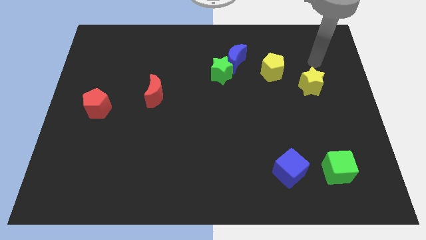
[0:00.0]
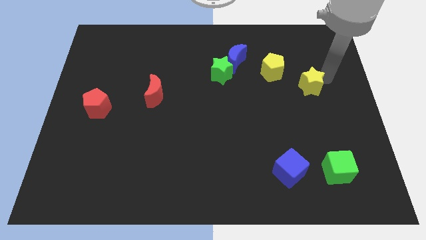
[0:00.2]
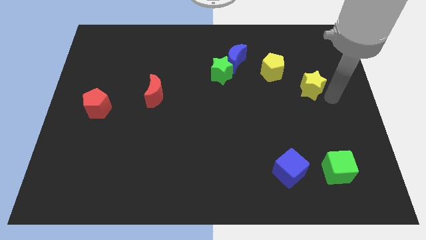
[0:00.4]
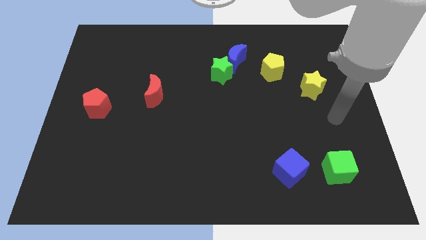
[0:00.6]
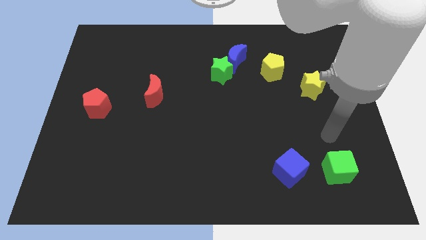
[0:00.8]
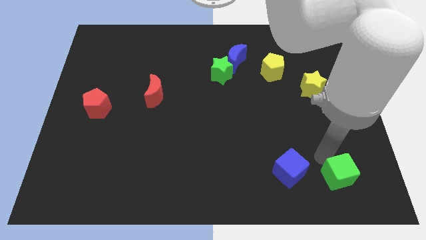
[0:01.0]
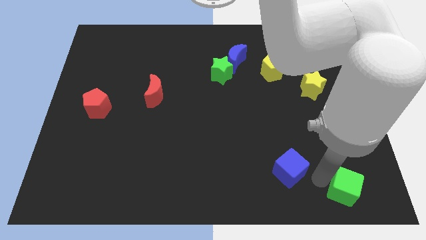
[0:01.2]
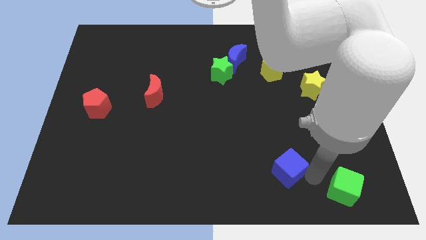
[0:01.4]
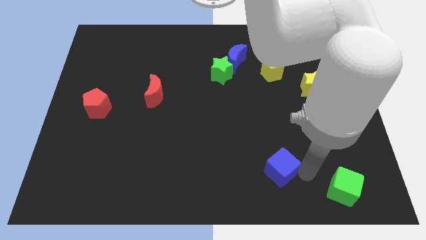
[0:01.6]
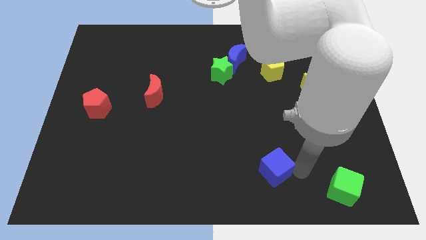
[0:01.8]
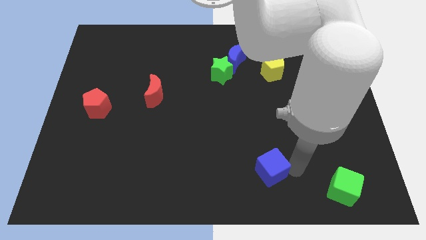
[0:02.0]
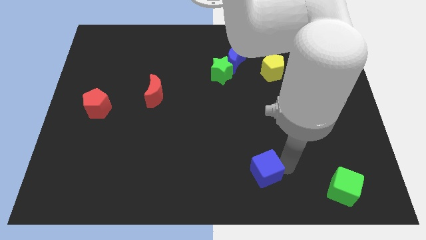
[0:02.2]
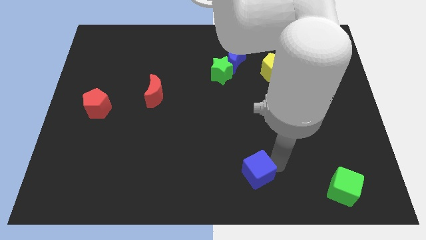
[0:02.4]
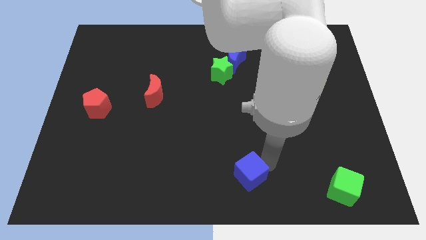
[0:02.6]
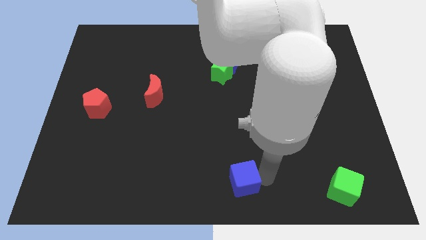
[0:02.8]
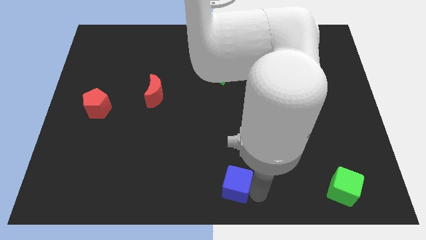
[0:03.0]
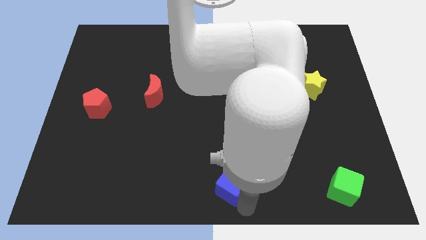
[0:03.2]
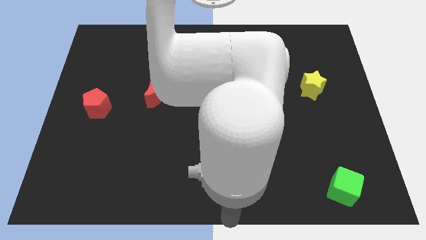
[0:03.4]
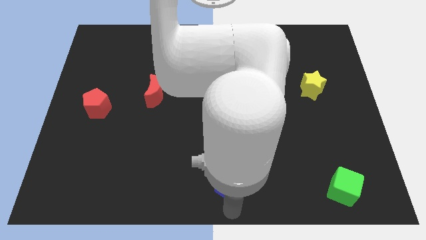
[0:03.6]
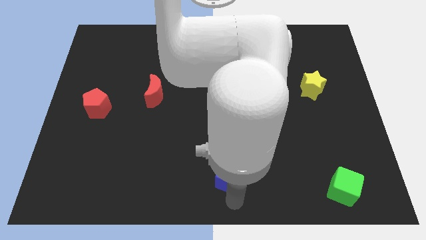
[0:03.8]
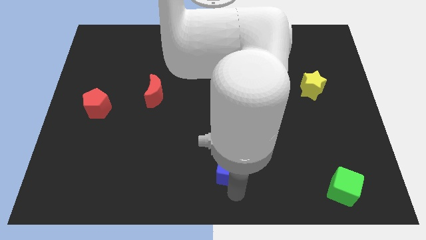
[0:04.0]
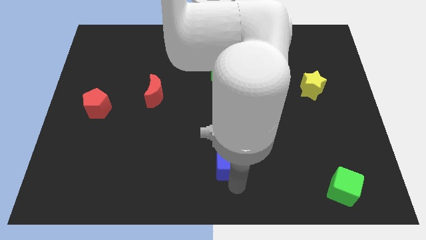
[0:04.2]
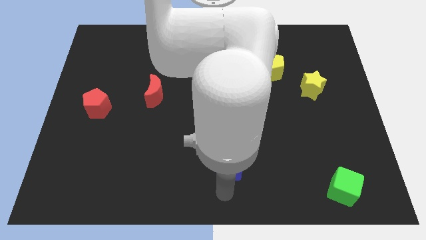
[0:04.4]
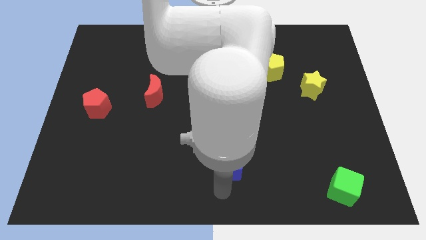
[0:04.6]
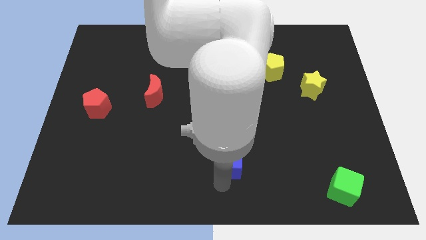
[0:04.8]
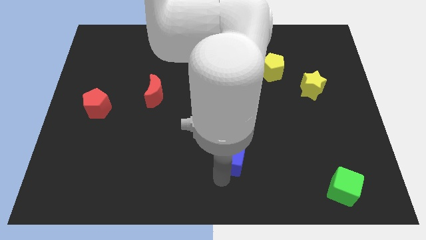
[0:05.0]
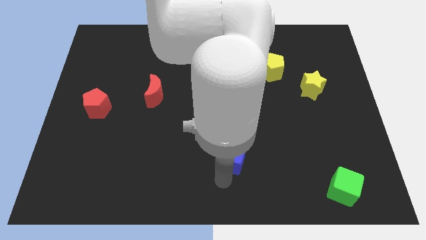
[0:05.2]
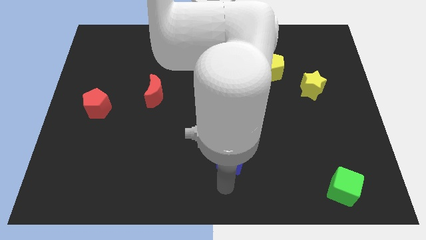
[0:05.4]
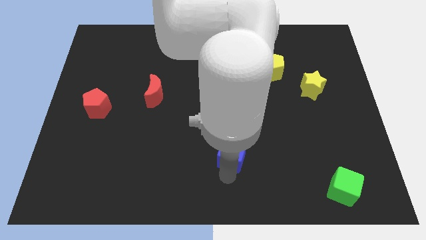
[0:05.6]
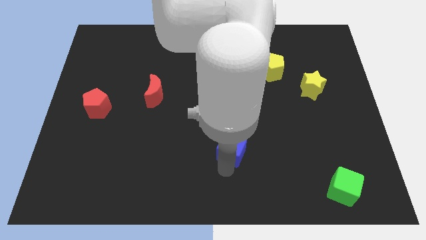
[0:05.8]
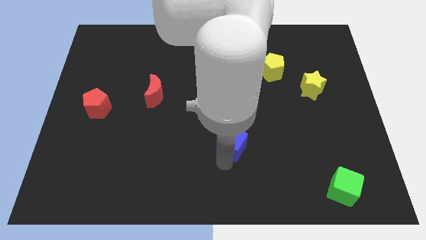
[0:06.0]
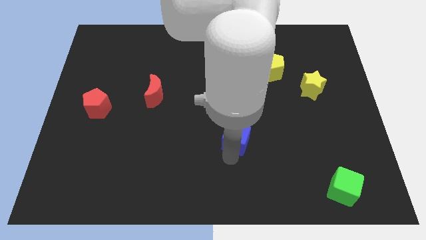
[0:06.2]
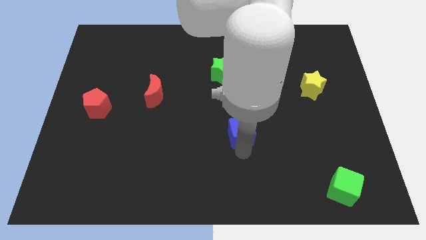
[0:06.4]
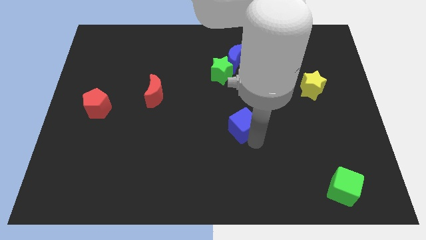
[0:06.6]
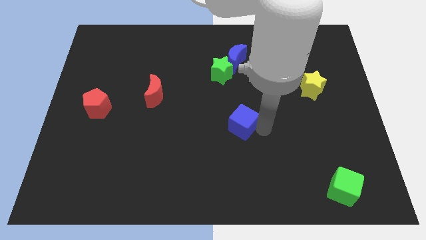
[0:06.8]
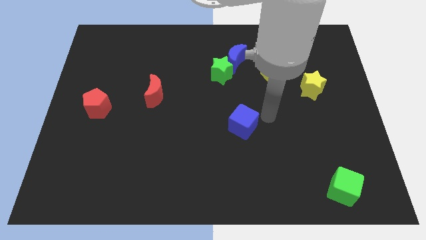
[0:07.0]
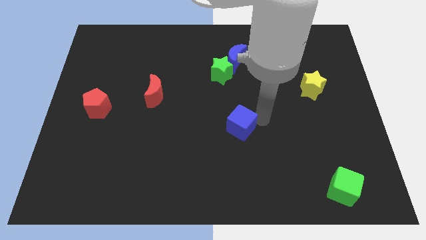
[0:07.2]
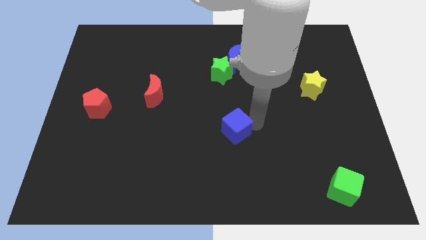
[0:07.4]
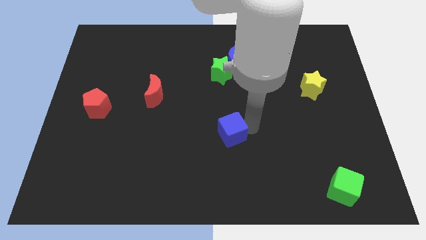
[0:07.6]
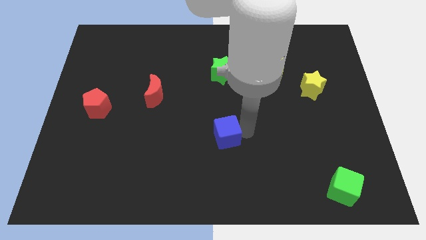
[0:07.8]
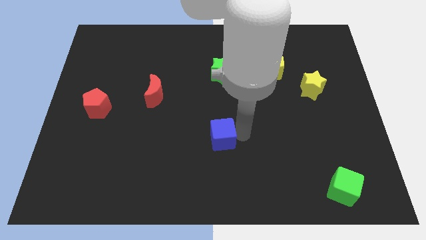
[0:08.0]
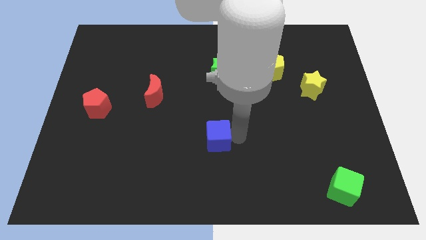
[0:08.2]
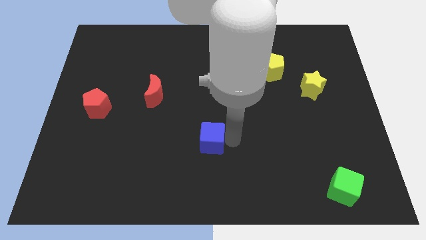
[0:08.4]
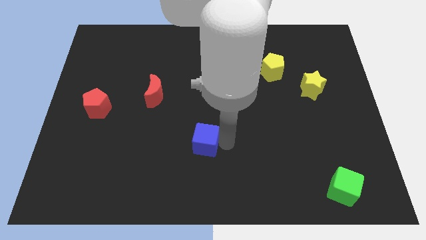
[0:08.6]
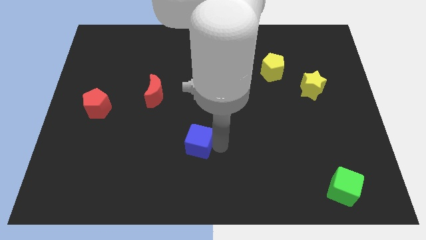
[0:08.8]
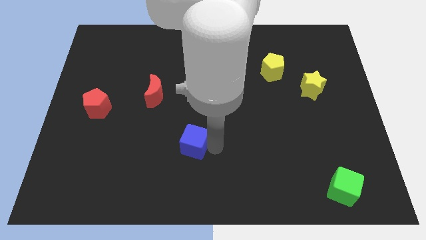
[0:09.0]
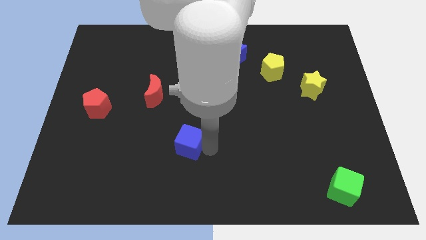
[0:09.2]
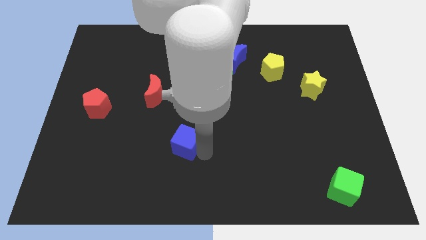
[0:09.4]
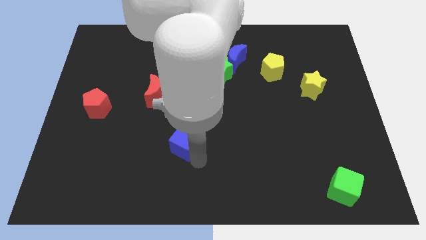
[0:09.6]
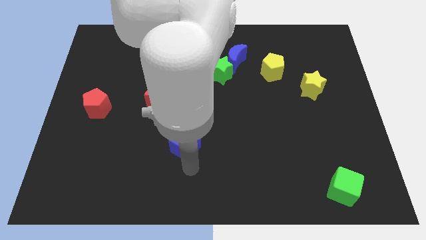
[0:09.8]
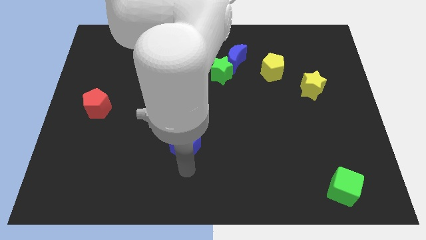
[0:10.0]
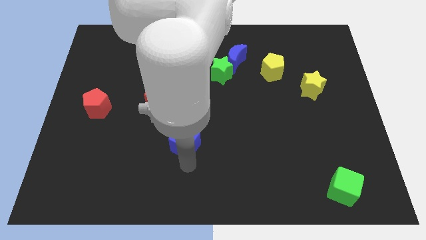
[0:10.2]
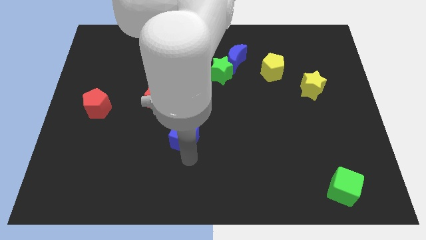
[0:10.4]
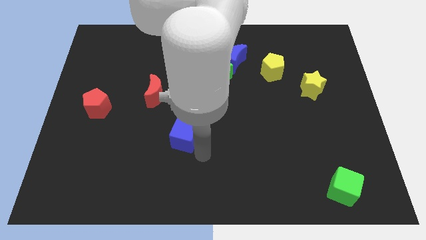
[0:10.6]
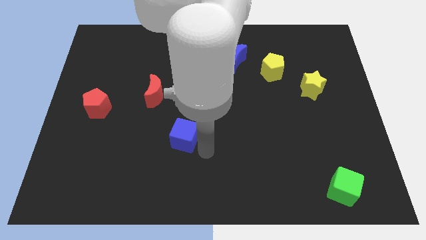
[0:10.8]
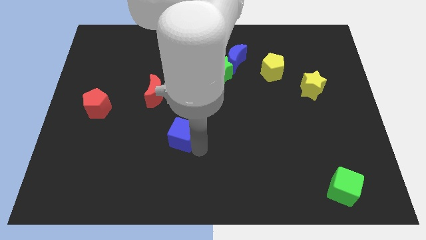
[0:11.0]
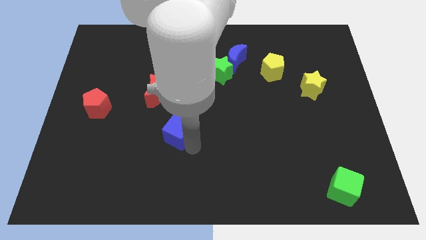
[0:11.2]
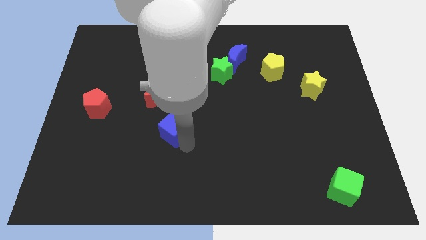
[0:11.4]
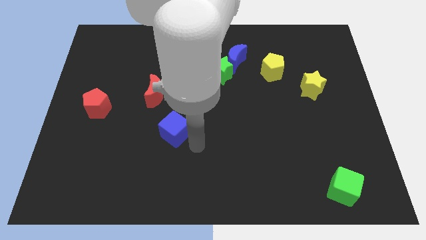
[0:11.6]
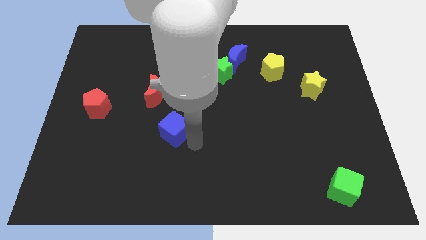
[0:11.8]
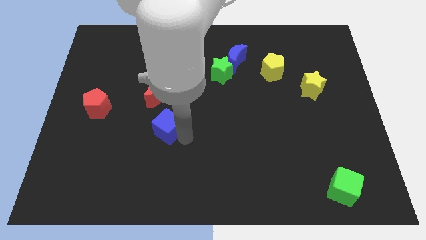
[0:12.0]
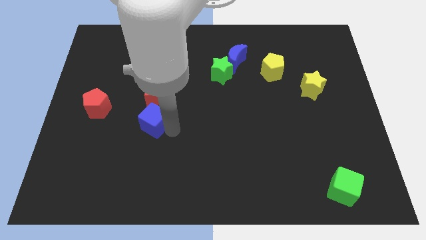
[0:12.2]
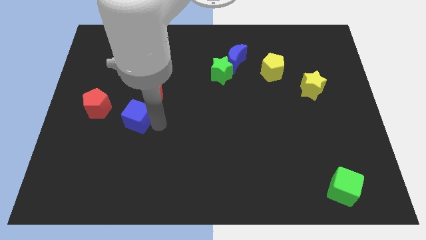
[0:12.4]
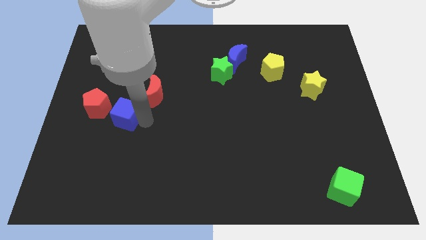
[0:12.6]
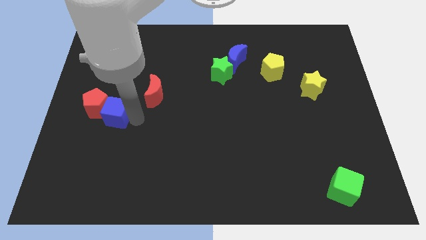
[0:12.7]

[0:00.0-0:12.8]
push the blue cube to the red pentagon

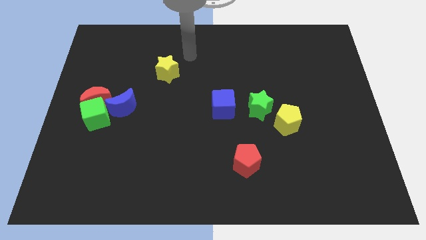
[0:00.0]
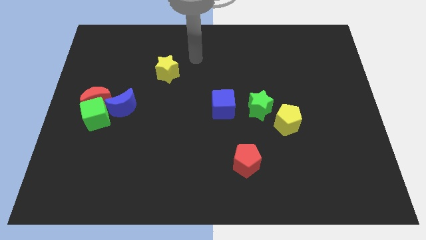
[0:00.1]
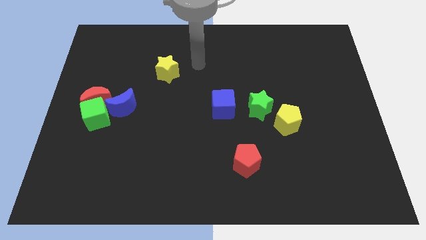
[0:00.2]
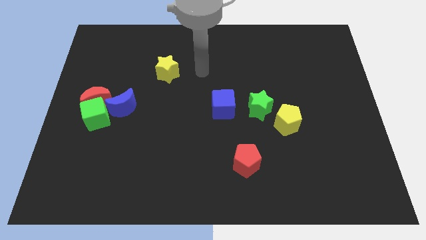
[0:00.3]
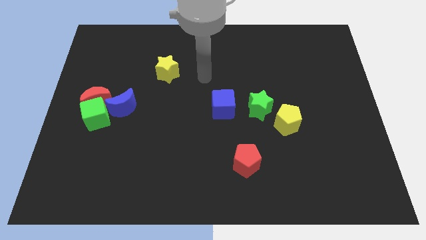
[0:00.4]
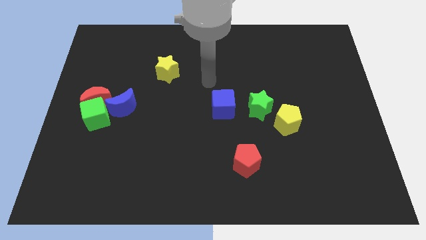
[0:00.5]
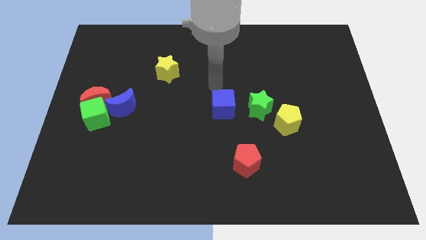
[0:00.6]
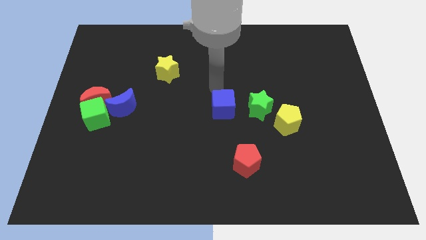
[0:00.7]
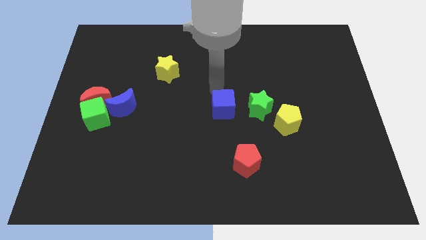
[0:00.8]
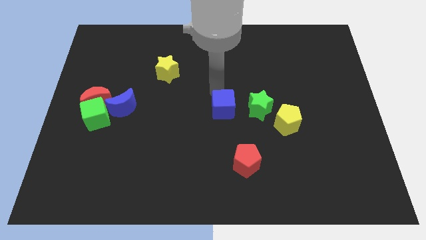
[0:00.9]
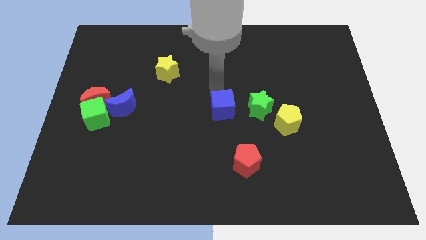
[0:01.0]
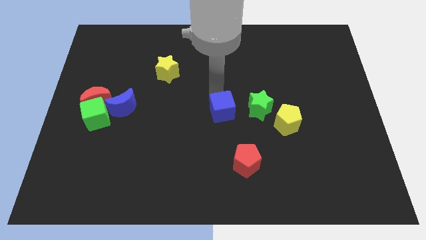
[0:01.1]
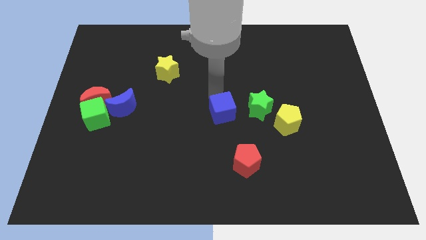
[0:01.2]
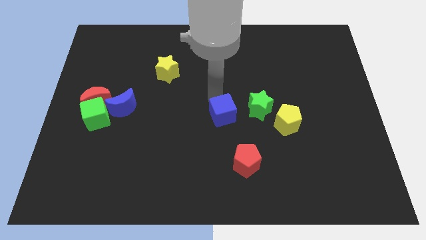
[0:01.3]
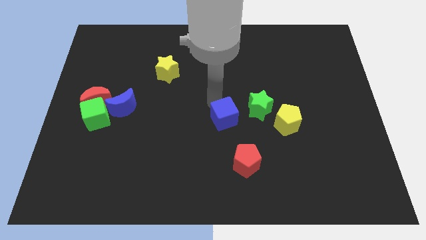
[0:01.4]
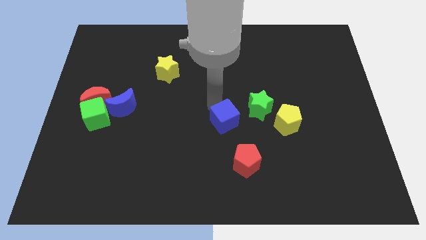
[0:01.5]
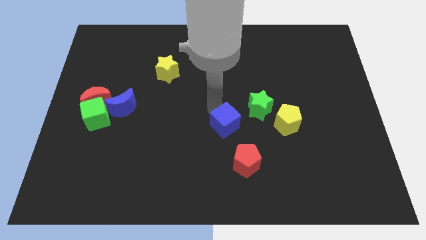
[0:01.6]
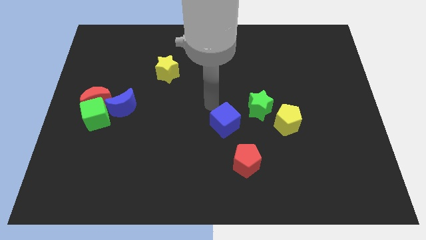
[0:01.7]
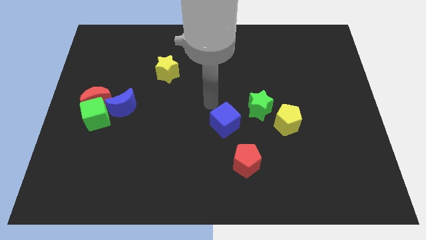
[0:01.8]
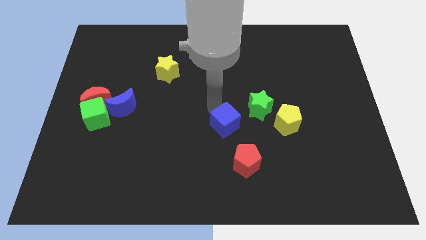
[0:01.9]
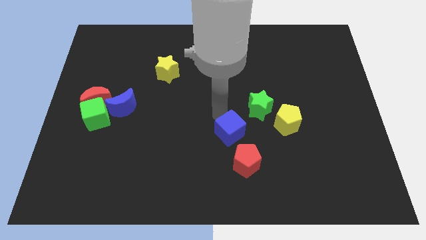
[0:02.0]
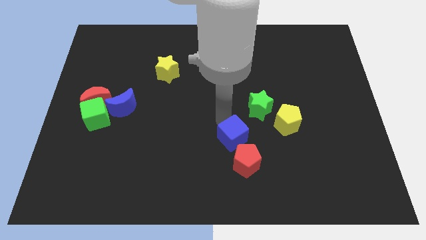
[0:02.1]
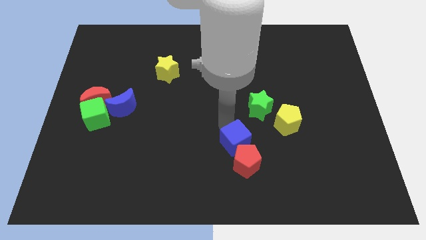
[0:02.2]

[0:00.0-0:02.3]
push the blue cube next to the red pentagon
